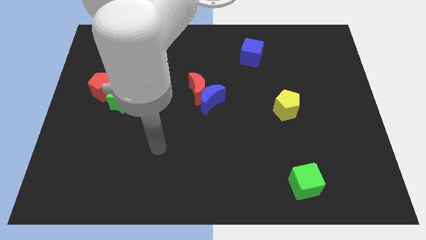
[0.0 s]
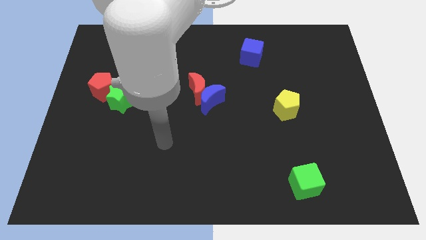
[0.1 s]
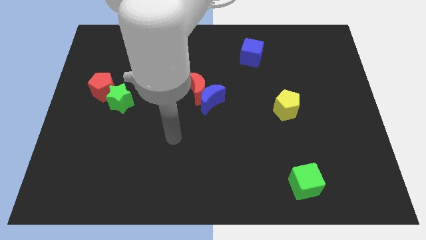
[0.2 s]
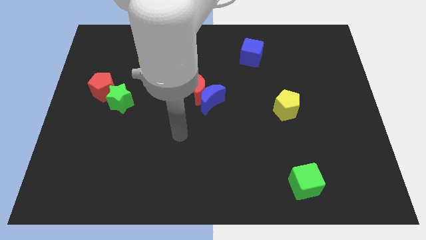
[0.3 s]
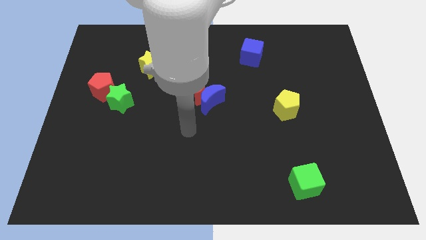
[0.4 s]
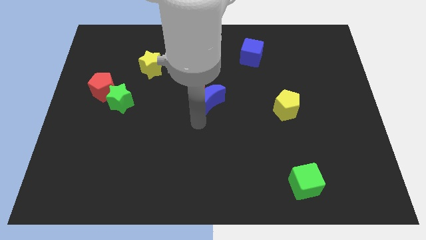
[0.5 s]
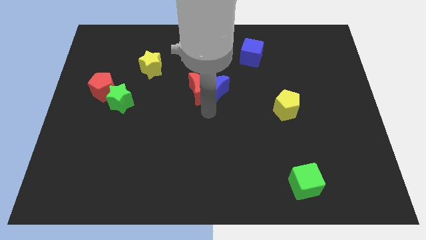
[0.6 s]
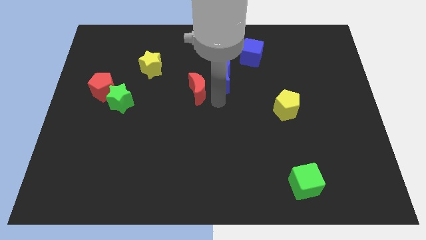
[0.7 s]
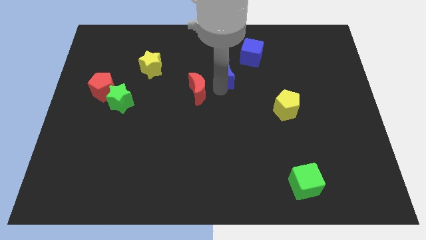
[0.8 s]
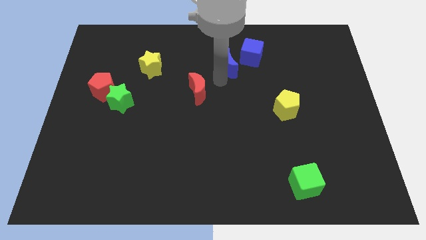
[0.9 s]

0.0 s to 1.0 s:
pull the red moon apart from the blue moon

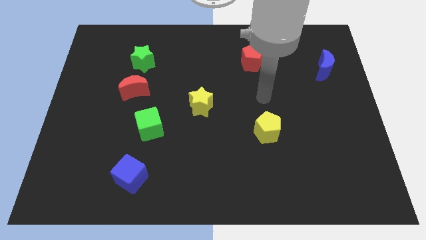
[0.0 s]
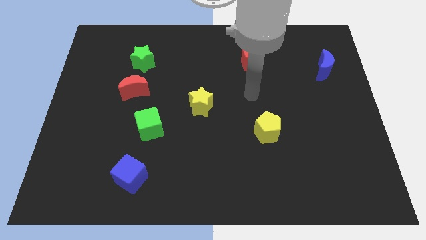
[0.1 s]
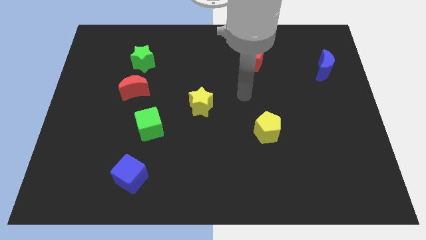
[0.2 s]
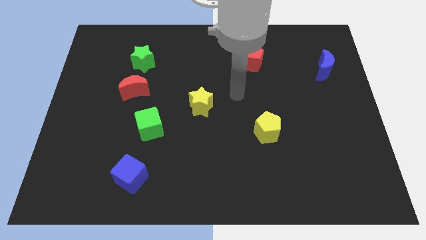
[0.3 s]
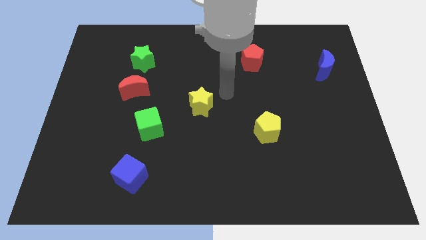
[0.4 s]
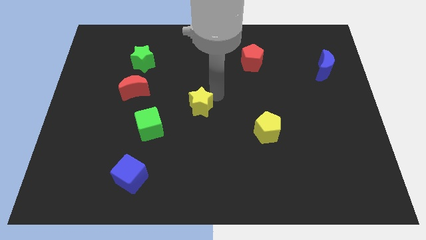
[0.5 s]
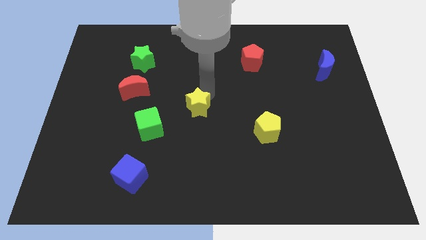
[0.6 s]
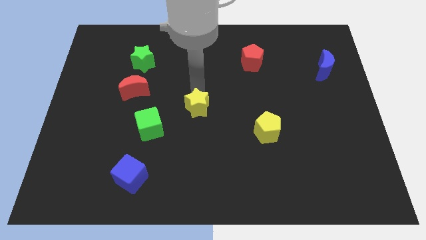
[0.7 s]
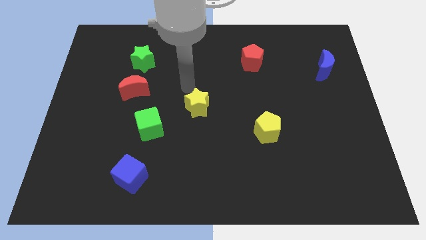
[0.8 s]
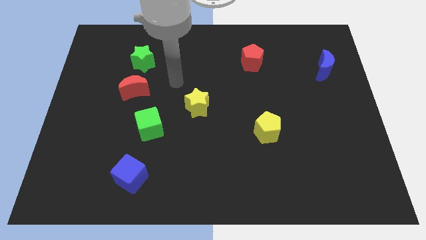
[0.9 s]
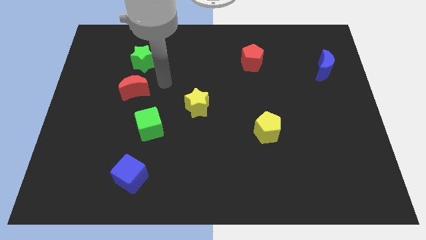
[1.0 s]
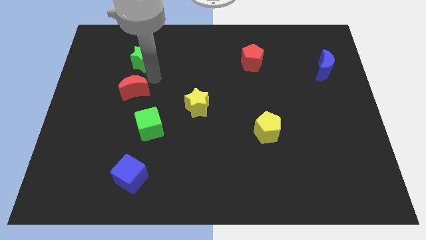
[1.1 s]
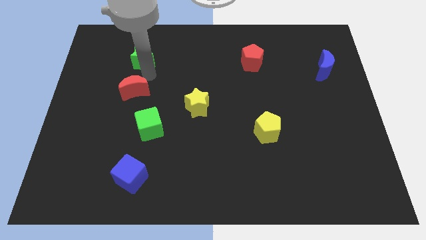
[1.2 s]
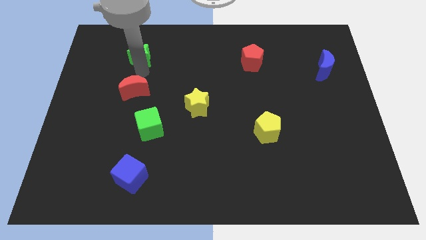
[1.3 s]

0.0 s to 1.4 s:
pull the red moon apart from the green star

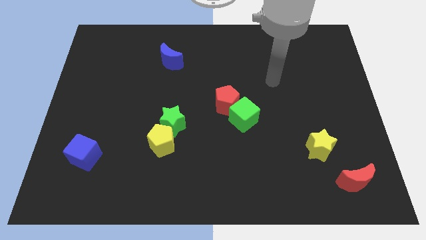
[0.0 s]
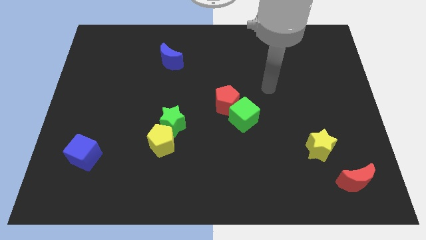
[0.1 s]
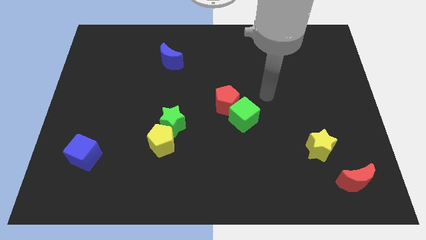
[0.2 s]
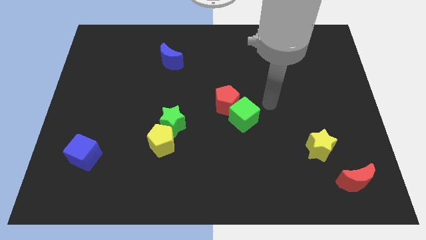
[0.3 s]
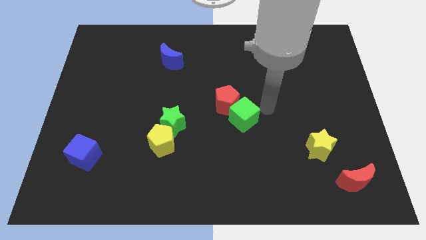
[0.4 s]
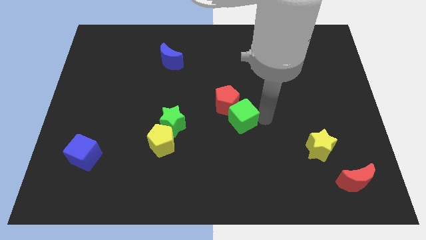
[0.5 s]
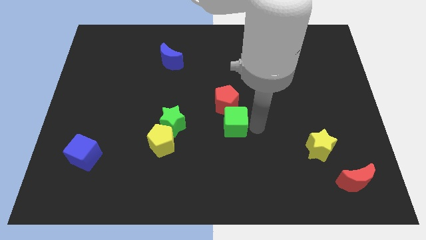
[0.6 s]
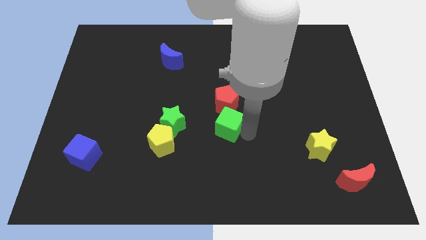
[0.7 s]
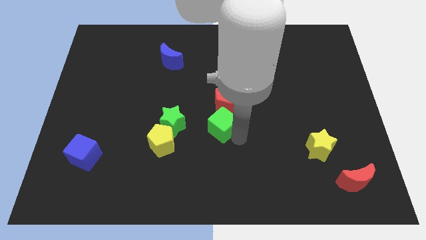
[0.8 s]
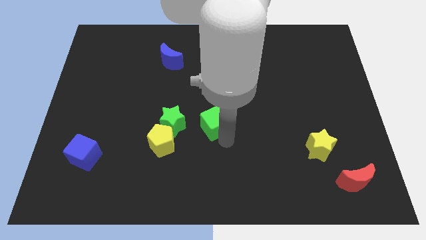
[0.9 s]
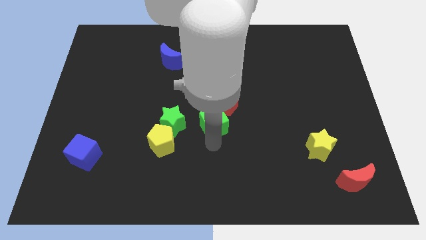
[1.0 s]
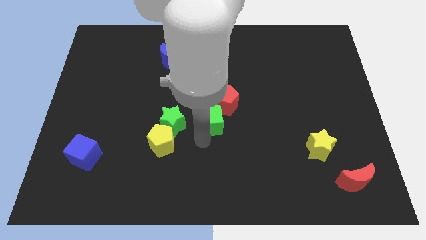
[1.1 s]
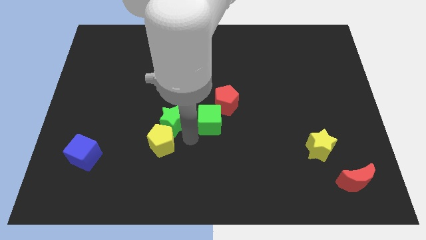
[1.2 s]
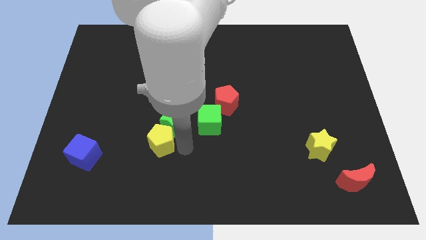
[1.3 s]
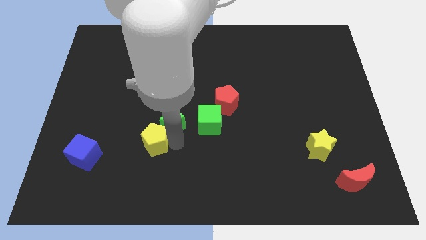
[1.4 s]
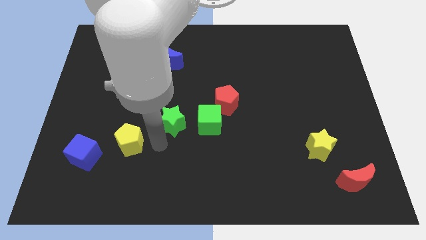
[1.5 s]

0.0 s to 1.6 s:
separate the green star from the yellow pentagon

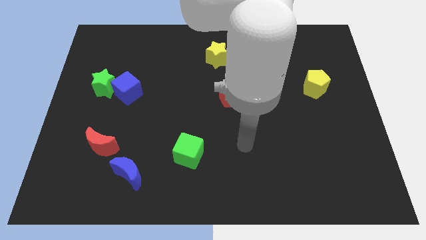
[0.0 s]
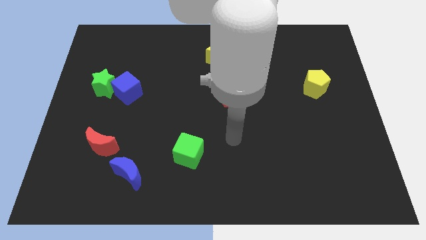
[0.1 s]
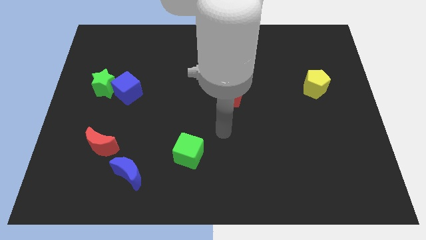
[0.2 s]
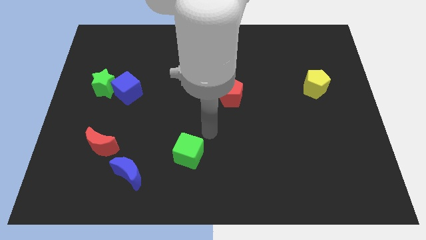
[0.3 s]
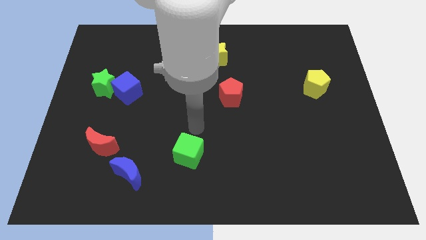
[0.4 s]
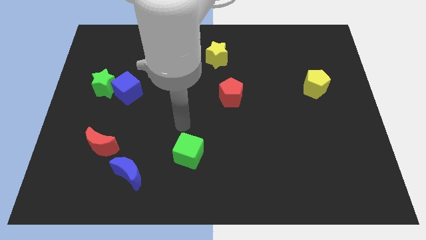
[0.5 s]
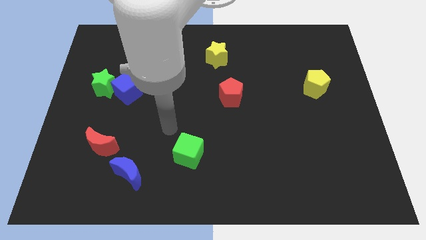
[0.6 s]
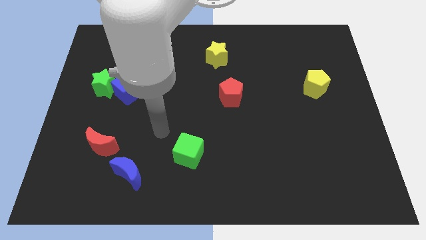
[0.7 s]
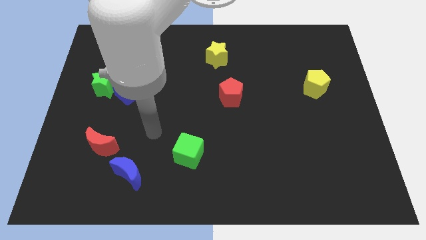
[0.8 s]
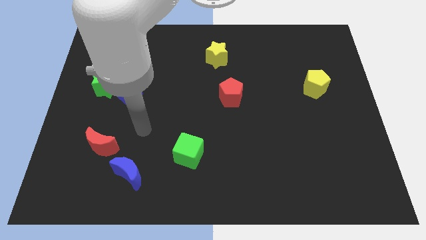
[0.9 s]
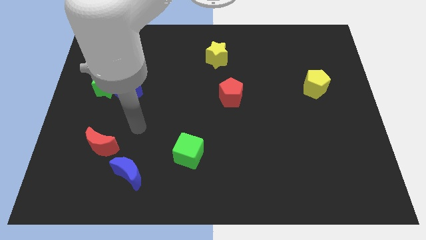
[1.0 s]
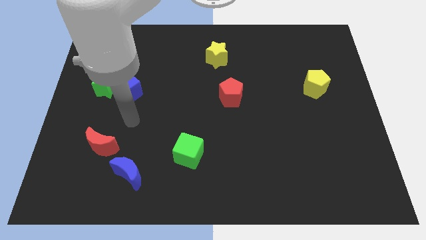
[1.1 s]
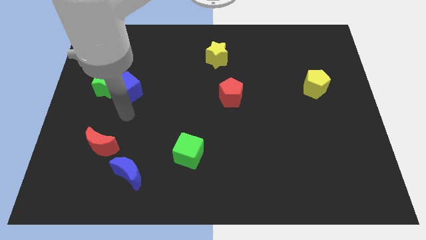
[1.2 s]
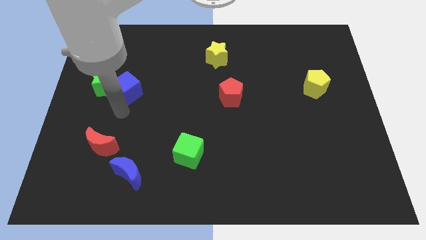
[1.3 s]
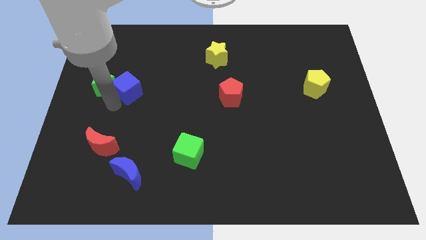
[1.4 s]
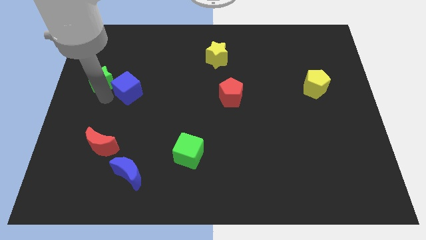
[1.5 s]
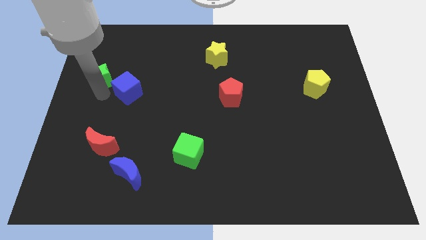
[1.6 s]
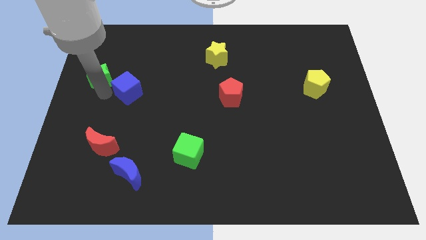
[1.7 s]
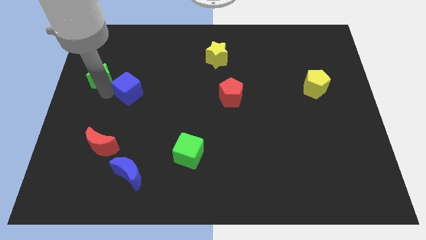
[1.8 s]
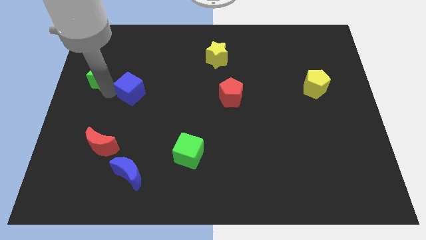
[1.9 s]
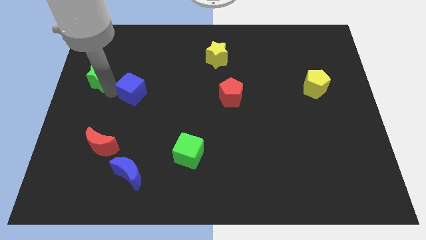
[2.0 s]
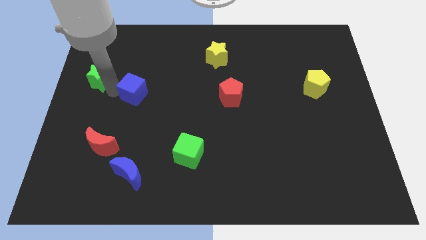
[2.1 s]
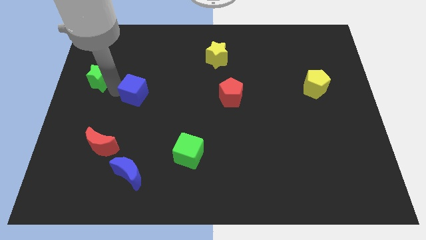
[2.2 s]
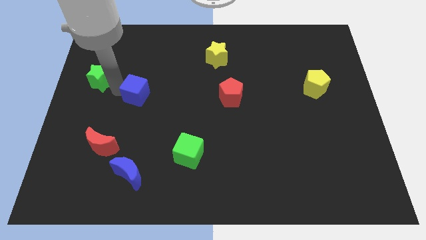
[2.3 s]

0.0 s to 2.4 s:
pull the blue cube apart from the green star

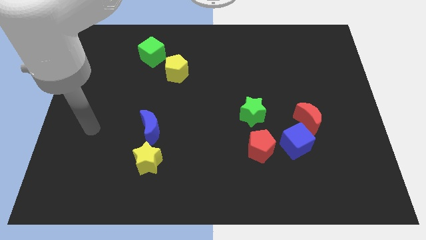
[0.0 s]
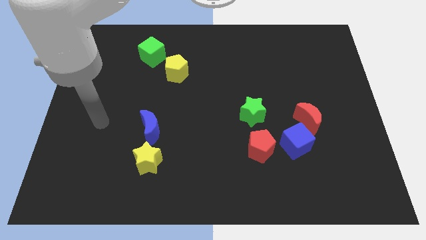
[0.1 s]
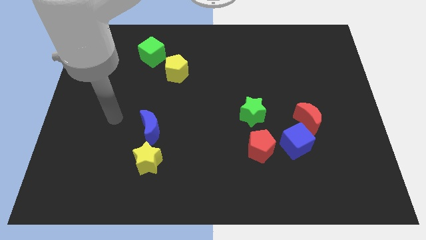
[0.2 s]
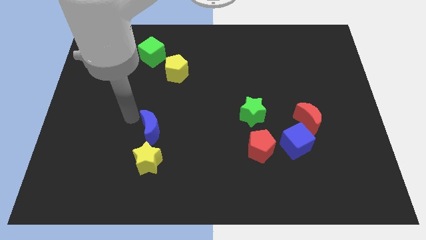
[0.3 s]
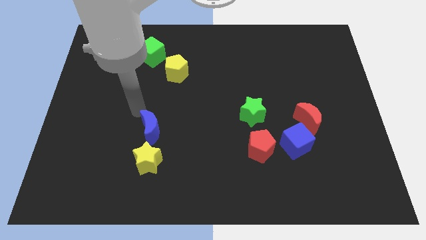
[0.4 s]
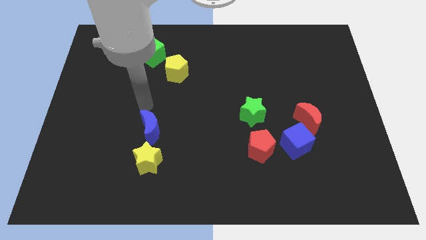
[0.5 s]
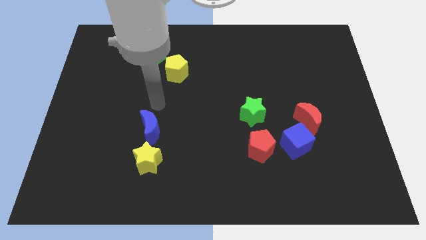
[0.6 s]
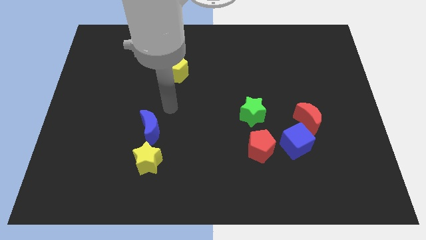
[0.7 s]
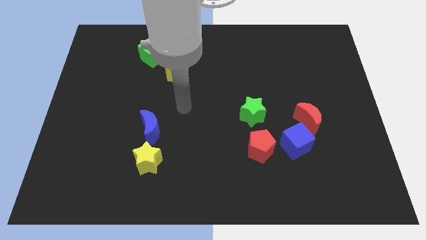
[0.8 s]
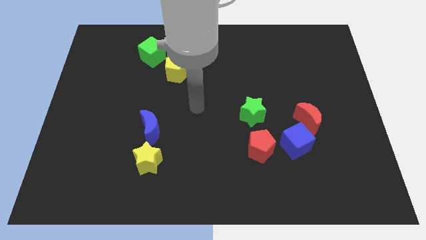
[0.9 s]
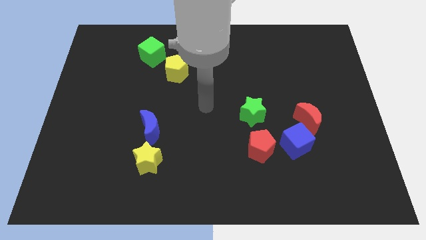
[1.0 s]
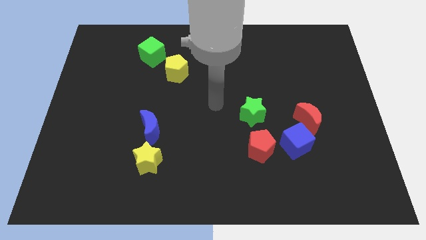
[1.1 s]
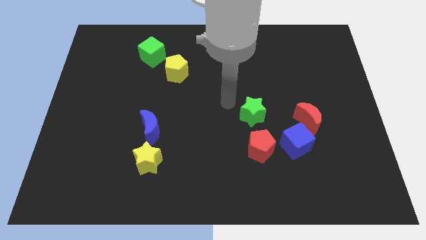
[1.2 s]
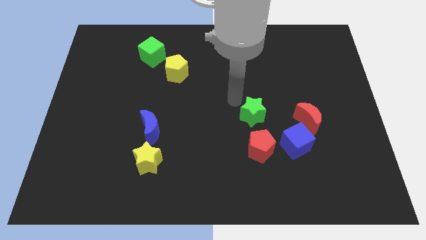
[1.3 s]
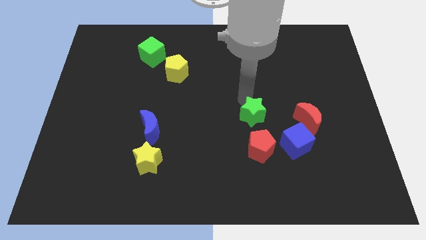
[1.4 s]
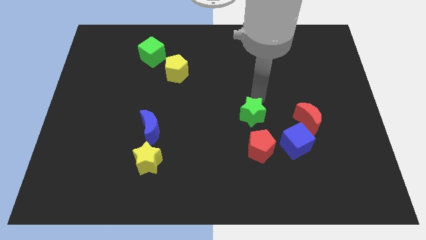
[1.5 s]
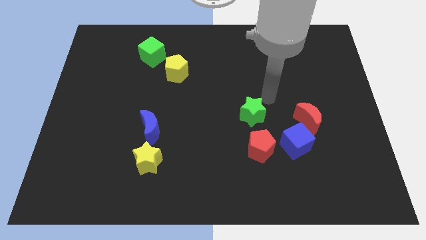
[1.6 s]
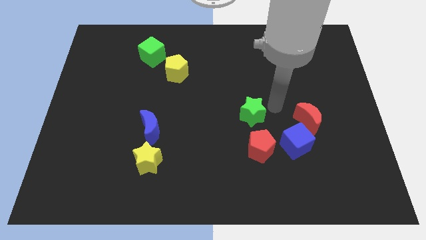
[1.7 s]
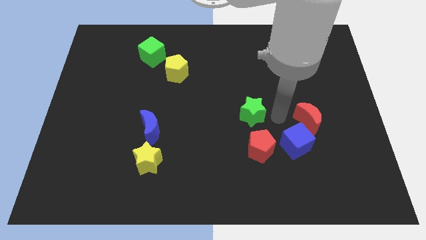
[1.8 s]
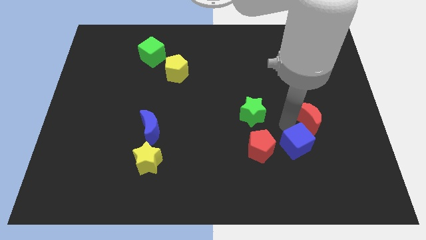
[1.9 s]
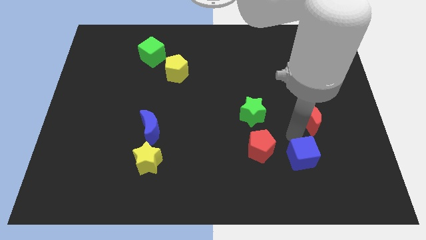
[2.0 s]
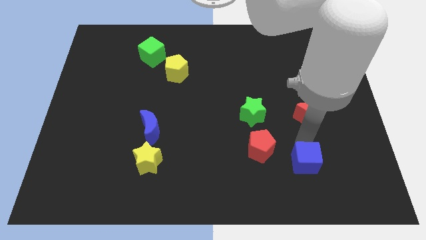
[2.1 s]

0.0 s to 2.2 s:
move the red moon away from the blue cube

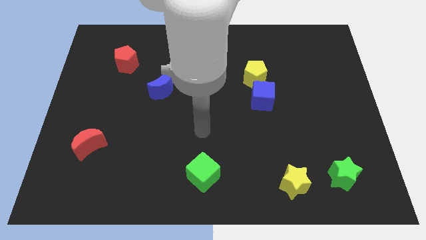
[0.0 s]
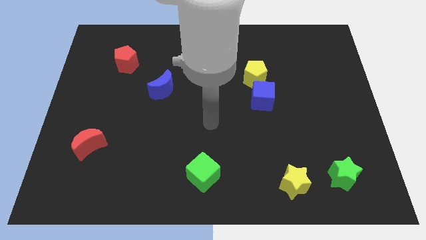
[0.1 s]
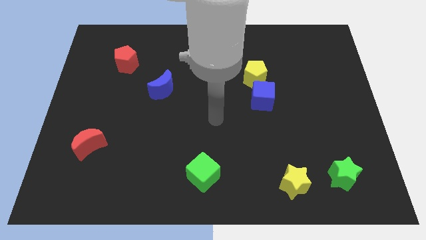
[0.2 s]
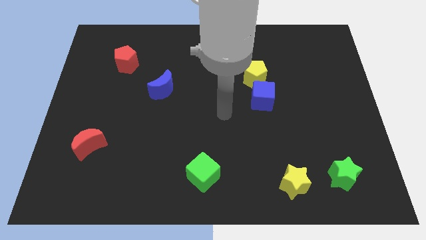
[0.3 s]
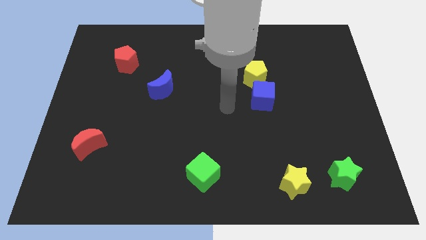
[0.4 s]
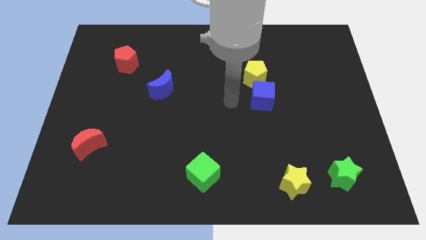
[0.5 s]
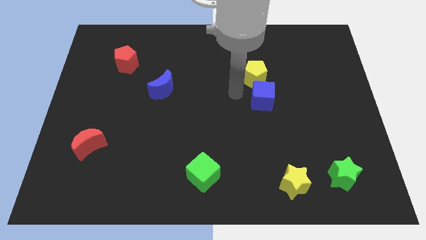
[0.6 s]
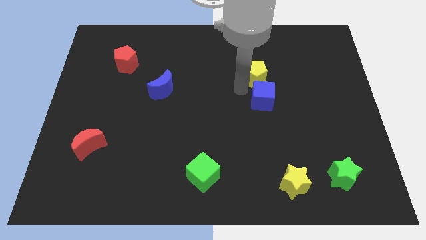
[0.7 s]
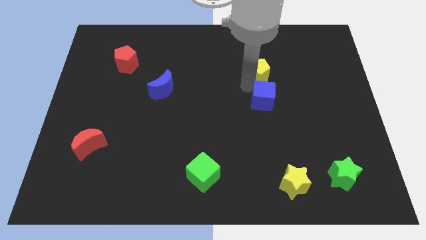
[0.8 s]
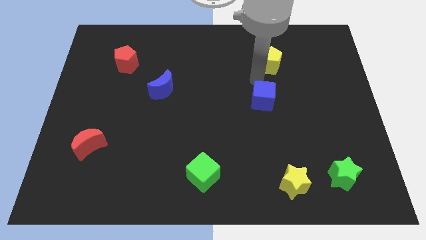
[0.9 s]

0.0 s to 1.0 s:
separate the blue cube from the yellow pentagon
